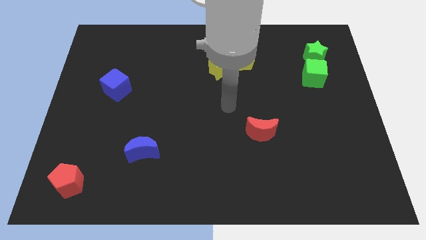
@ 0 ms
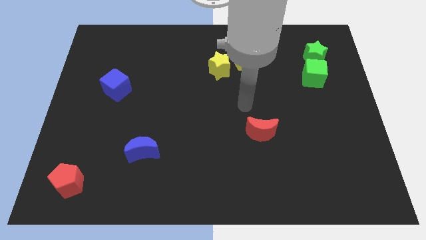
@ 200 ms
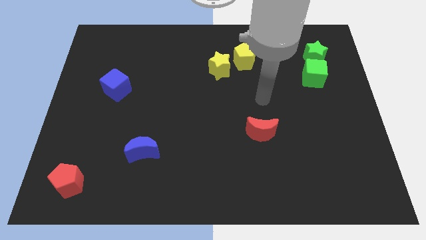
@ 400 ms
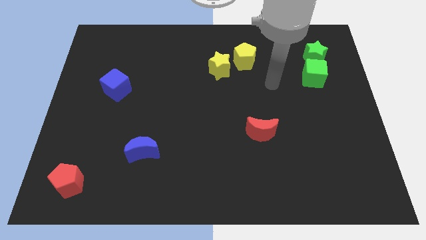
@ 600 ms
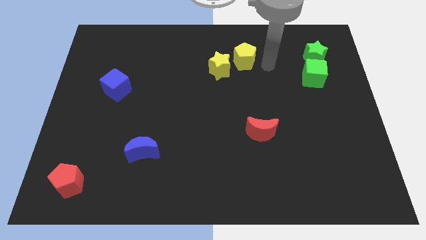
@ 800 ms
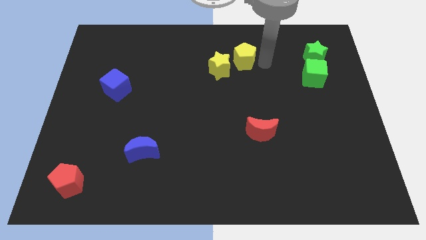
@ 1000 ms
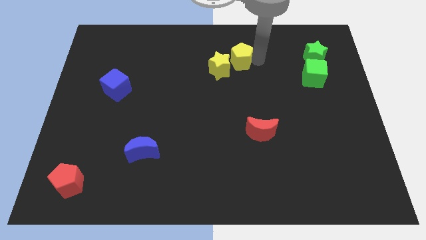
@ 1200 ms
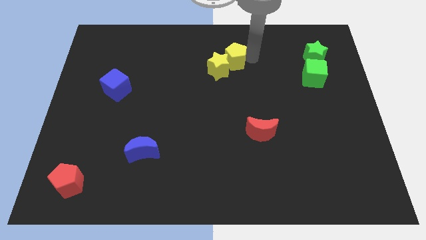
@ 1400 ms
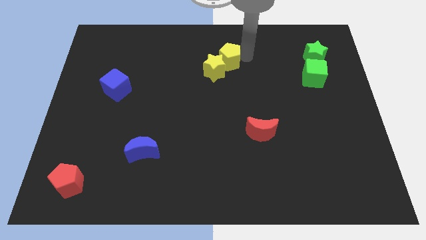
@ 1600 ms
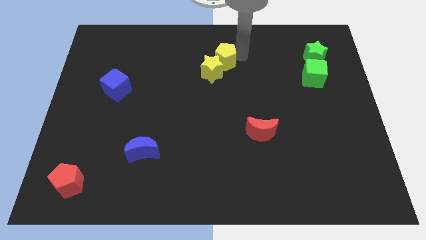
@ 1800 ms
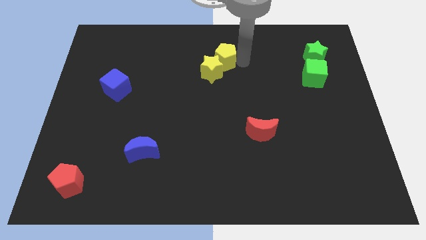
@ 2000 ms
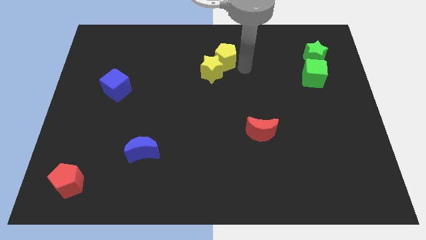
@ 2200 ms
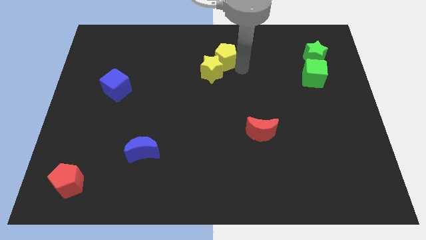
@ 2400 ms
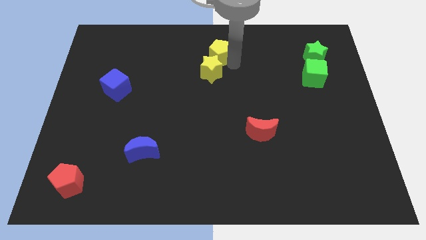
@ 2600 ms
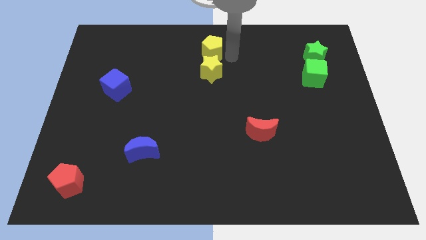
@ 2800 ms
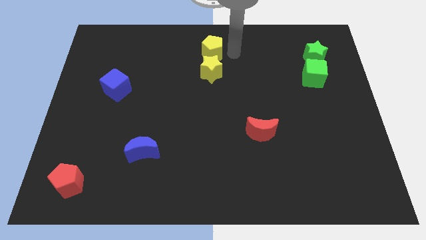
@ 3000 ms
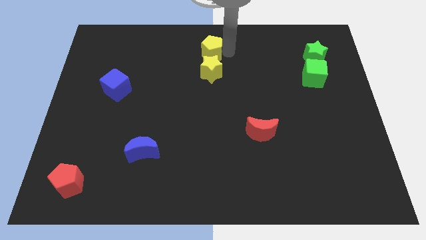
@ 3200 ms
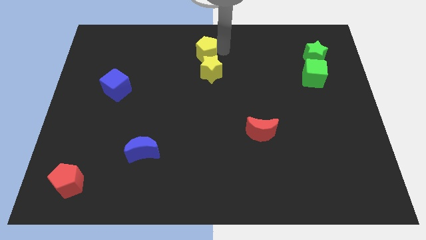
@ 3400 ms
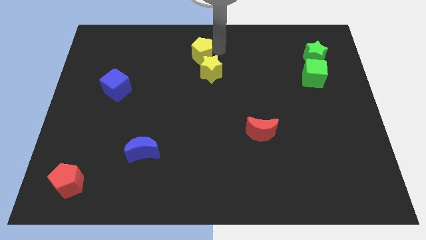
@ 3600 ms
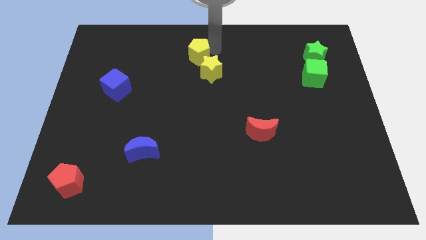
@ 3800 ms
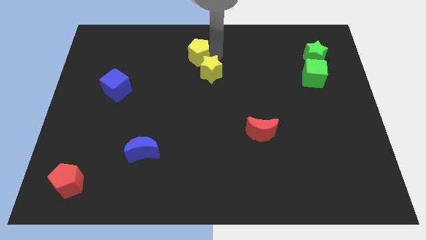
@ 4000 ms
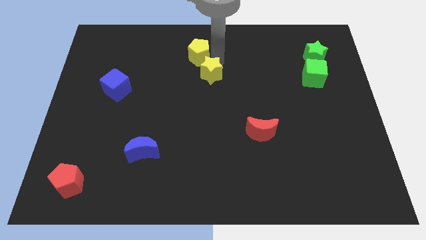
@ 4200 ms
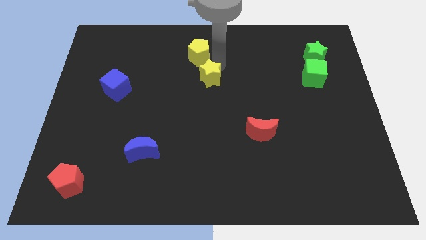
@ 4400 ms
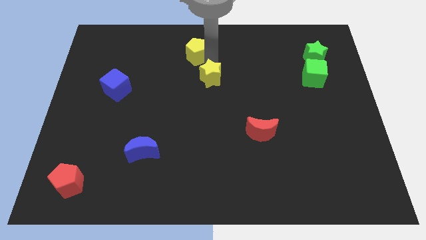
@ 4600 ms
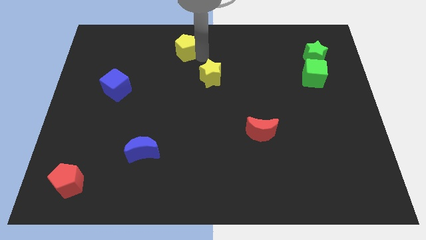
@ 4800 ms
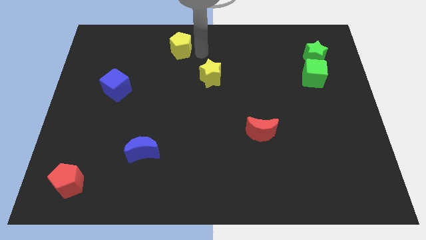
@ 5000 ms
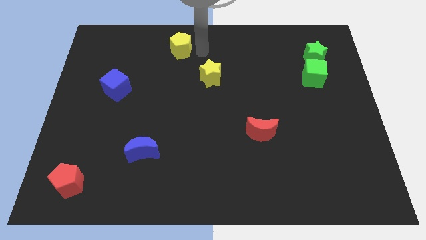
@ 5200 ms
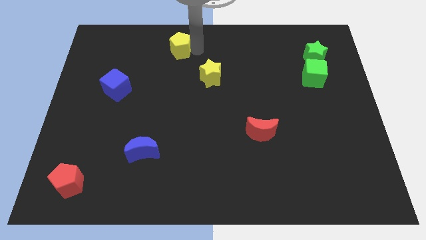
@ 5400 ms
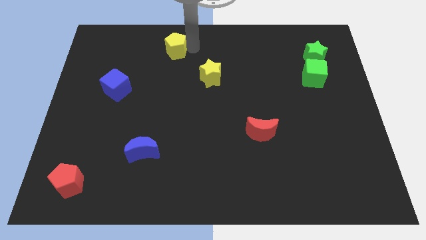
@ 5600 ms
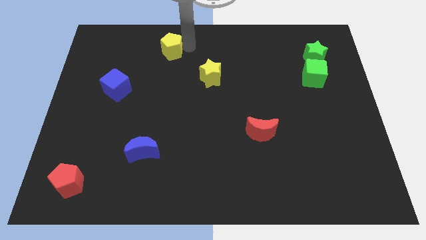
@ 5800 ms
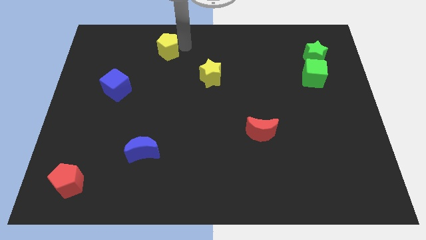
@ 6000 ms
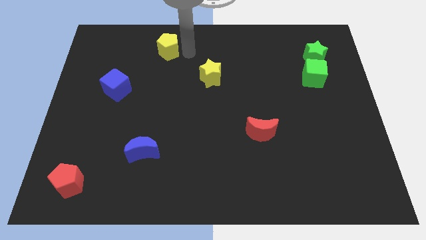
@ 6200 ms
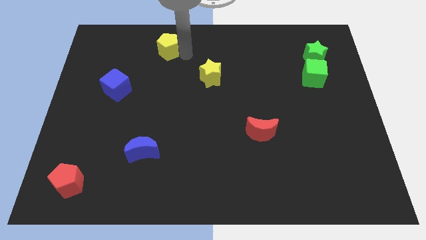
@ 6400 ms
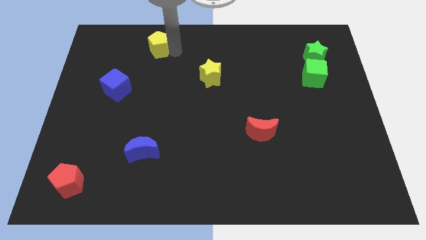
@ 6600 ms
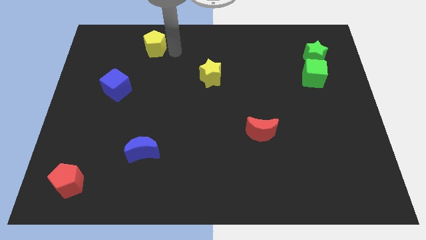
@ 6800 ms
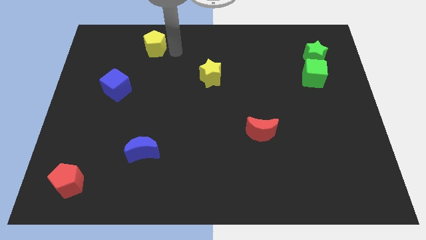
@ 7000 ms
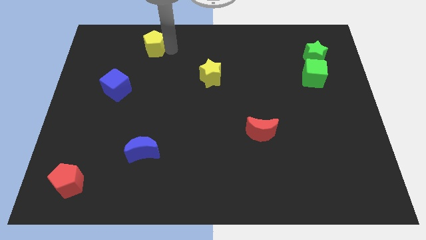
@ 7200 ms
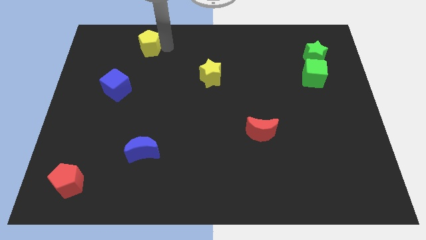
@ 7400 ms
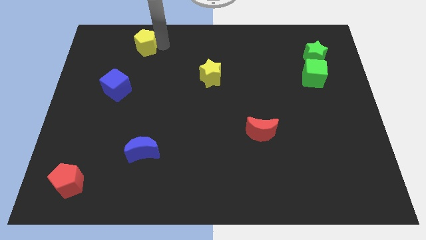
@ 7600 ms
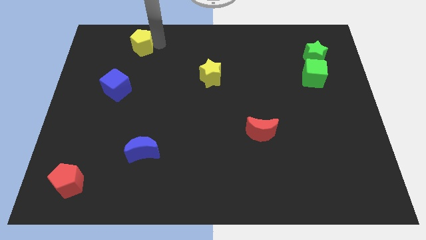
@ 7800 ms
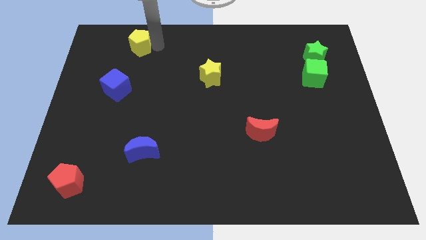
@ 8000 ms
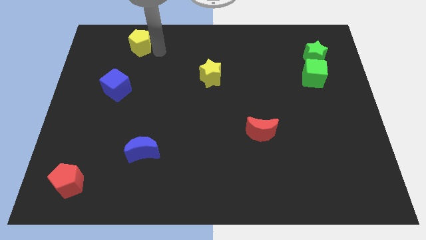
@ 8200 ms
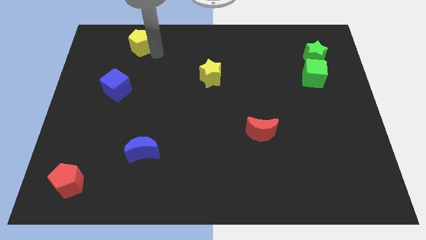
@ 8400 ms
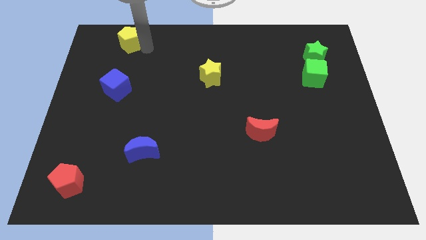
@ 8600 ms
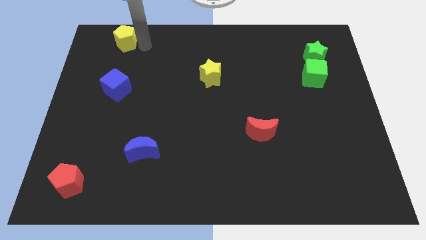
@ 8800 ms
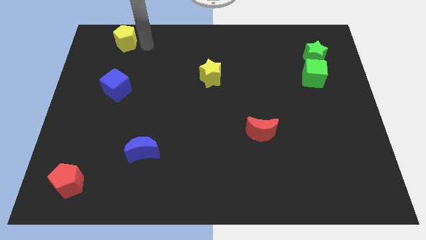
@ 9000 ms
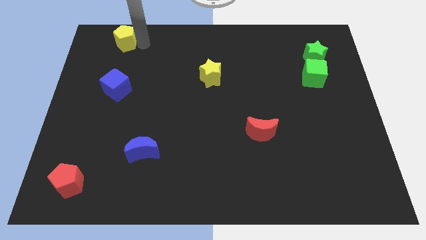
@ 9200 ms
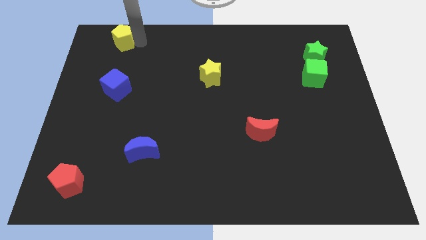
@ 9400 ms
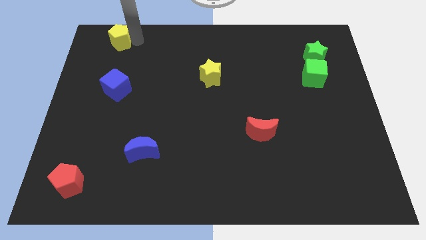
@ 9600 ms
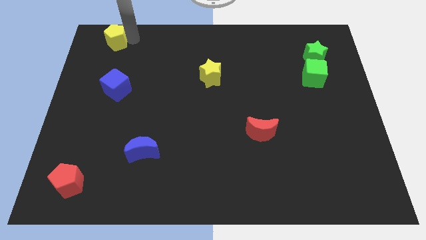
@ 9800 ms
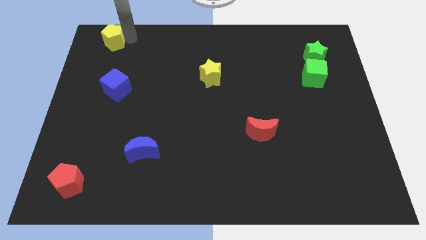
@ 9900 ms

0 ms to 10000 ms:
slide the yellow pentagon to the top left
